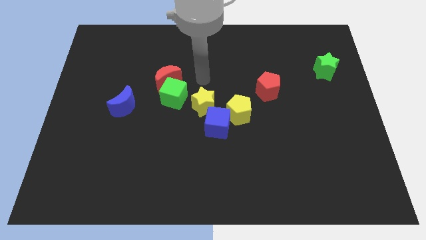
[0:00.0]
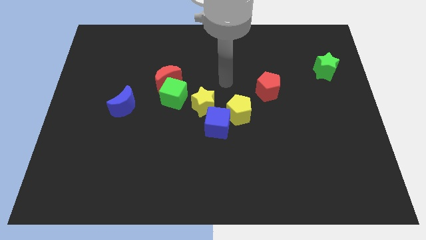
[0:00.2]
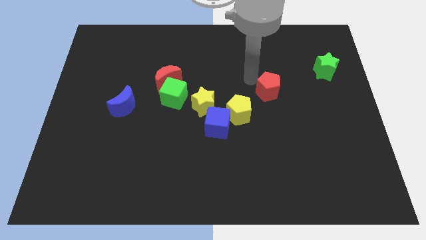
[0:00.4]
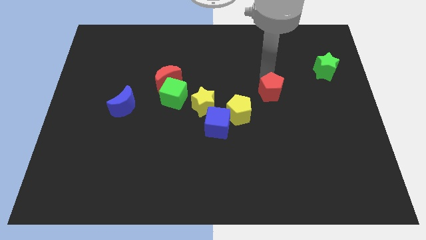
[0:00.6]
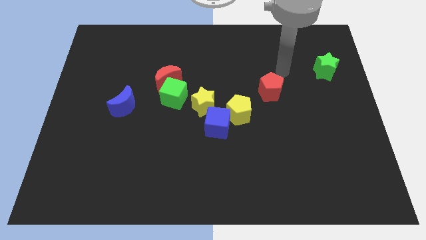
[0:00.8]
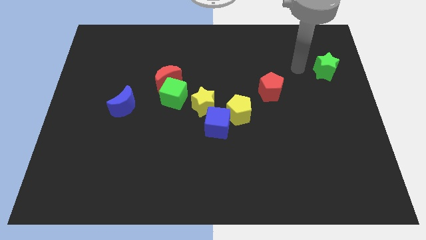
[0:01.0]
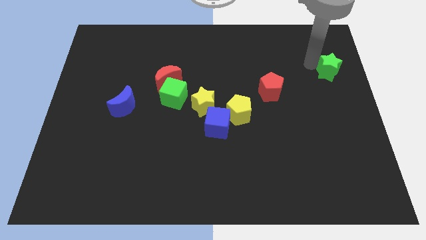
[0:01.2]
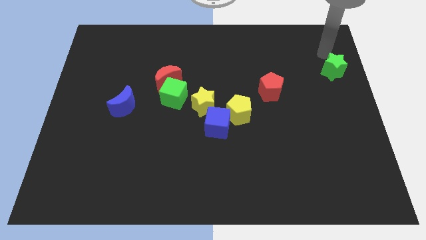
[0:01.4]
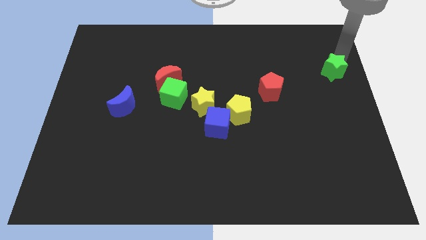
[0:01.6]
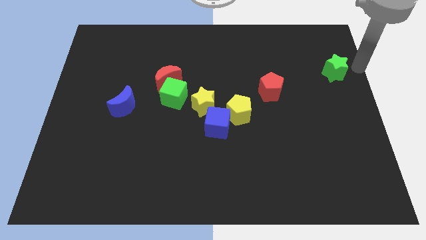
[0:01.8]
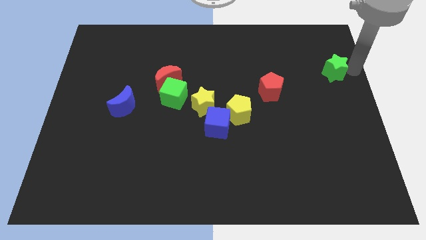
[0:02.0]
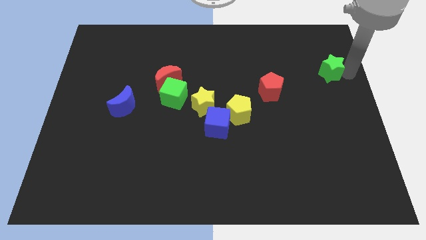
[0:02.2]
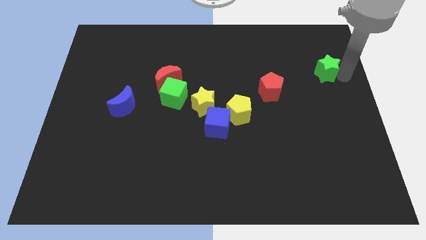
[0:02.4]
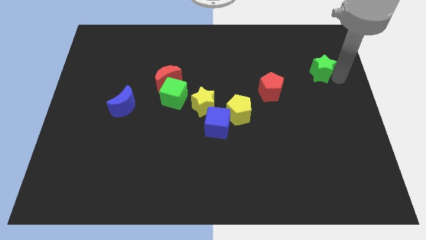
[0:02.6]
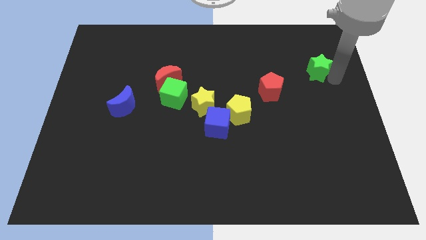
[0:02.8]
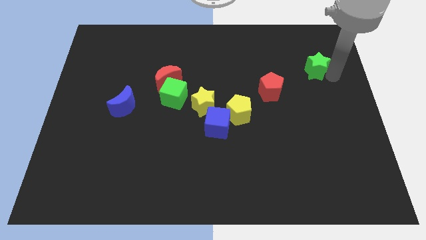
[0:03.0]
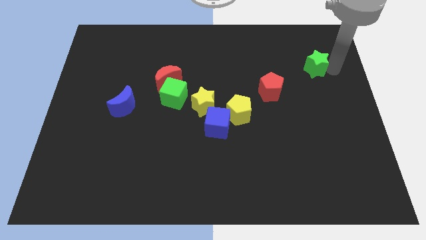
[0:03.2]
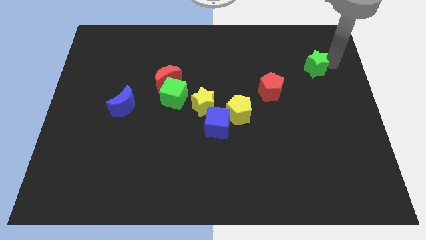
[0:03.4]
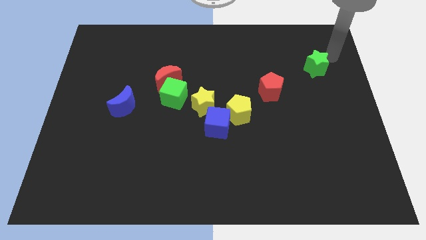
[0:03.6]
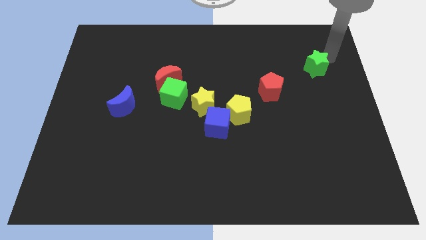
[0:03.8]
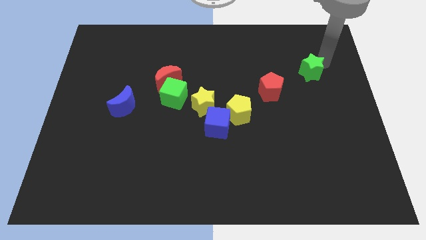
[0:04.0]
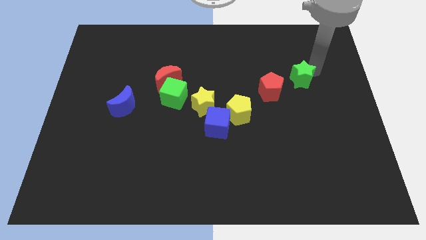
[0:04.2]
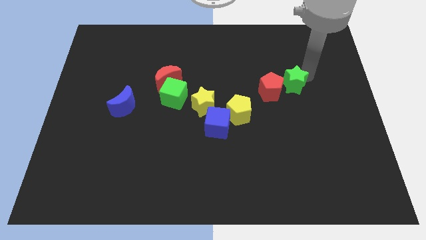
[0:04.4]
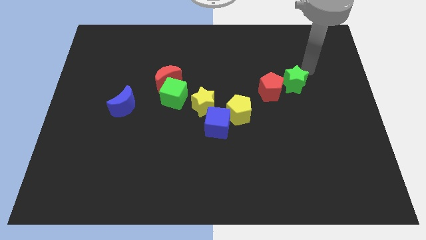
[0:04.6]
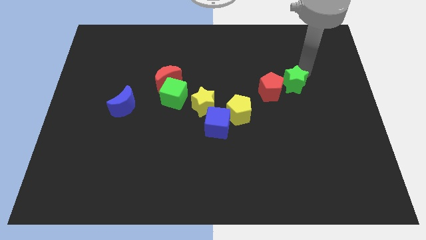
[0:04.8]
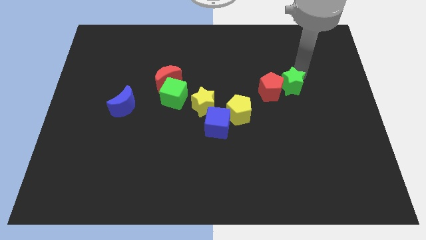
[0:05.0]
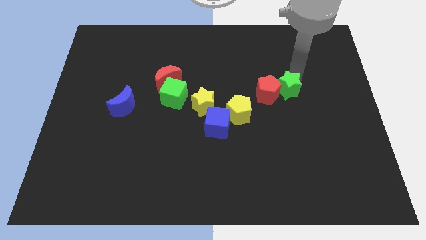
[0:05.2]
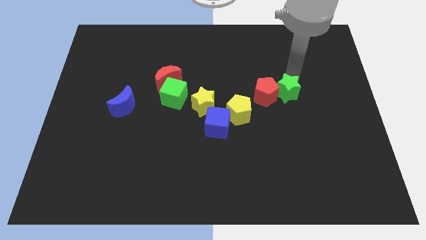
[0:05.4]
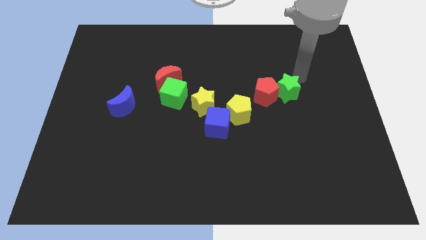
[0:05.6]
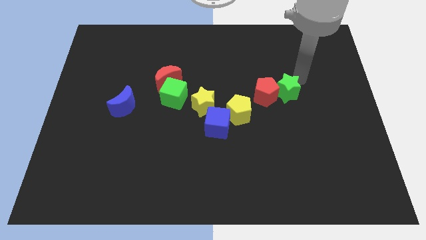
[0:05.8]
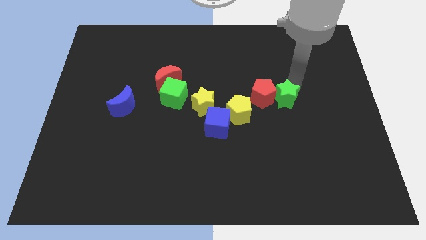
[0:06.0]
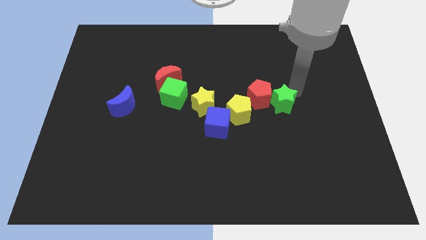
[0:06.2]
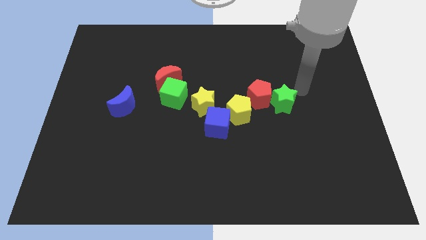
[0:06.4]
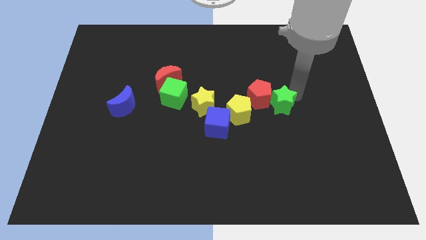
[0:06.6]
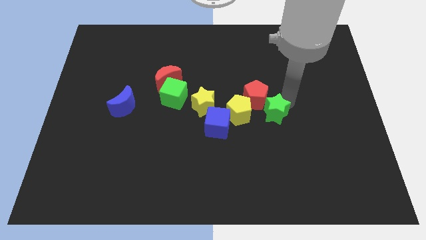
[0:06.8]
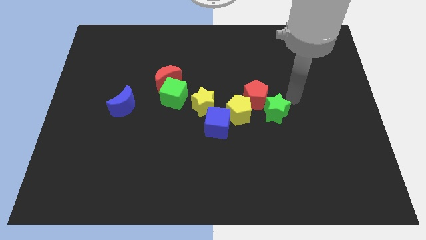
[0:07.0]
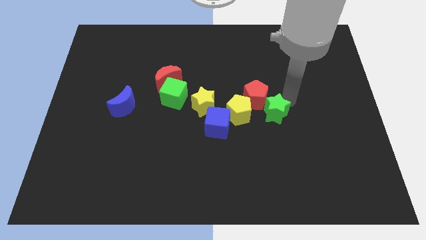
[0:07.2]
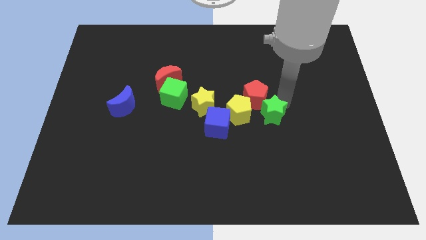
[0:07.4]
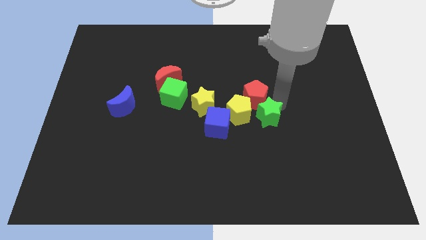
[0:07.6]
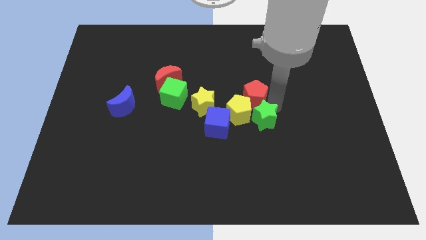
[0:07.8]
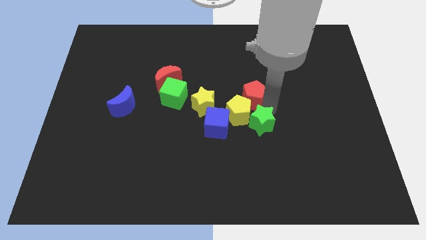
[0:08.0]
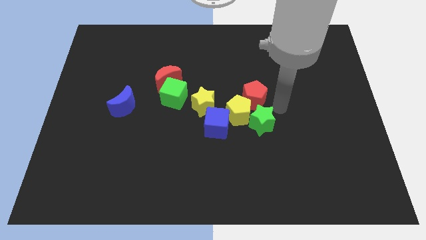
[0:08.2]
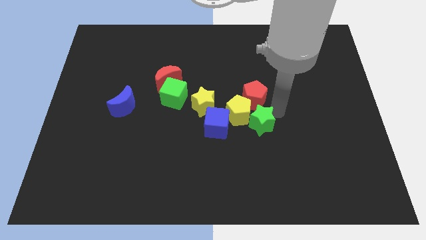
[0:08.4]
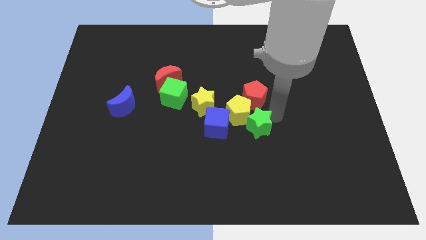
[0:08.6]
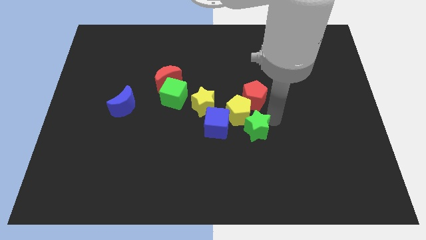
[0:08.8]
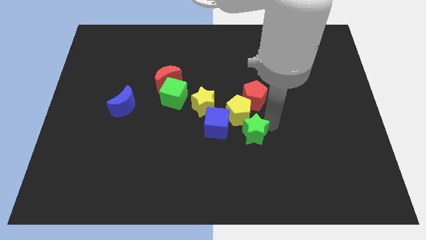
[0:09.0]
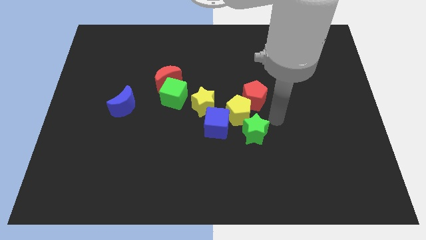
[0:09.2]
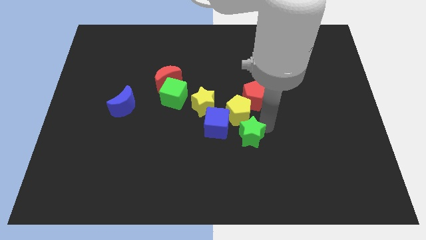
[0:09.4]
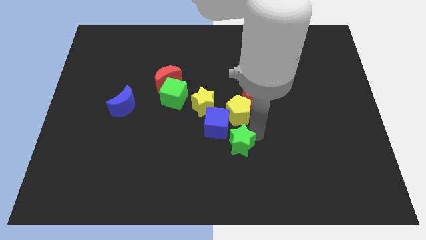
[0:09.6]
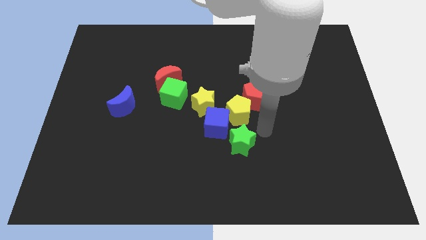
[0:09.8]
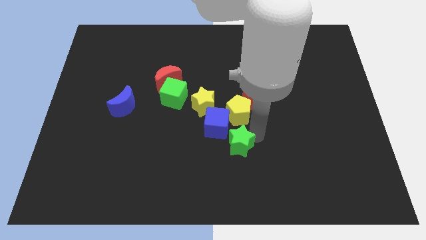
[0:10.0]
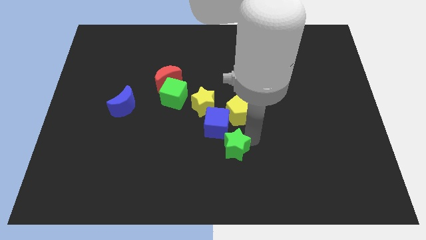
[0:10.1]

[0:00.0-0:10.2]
push the green star to the bottom side of the blue cube

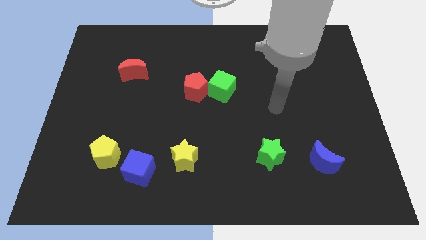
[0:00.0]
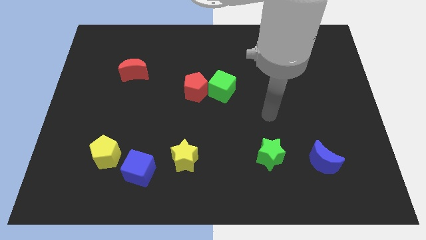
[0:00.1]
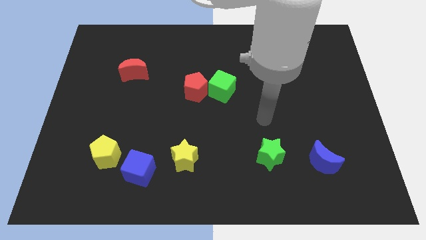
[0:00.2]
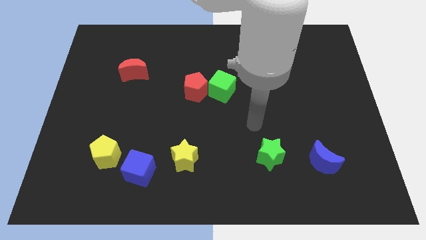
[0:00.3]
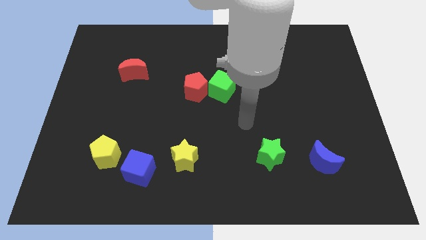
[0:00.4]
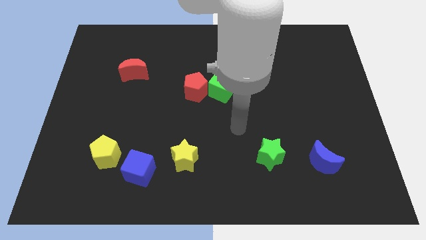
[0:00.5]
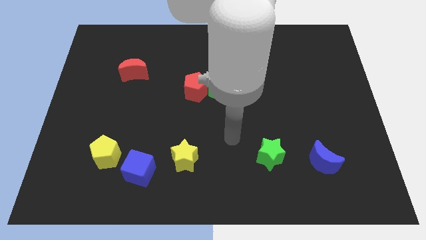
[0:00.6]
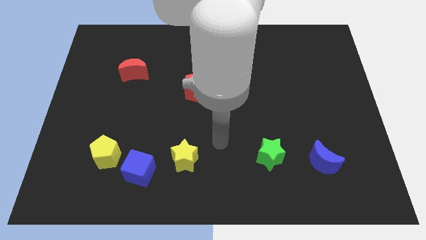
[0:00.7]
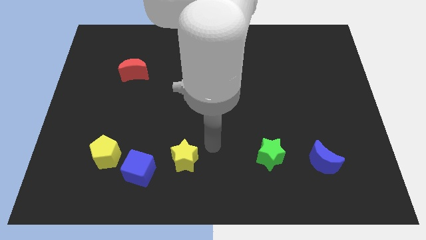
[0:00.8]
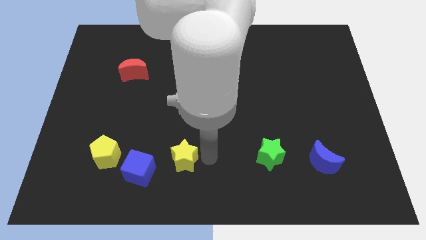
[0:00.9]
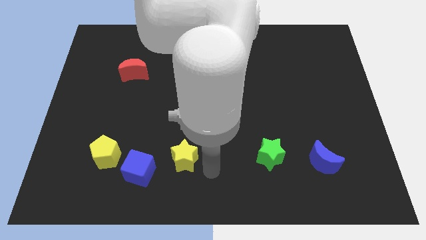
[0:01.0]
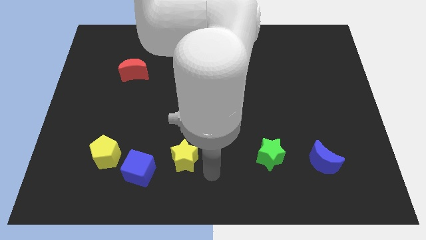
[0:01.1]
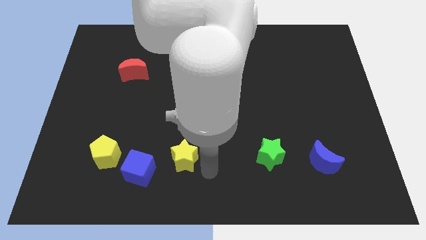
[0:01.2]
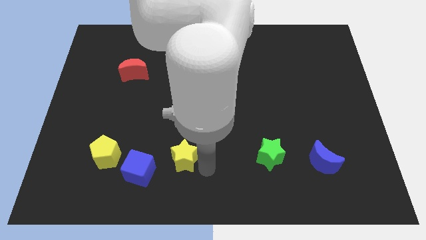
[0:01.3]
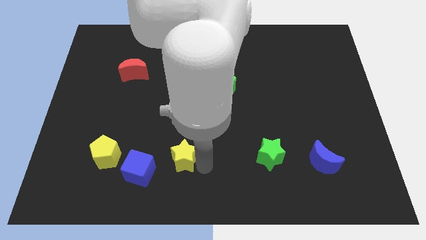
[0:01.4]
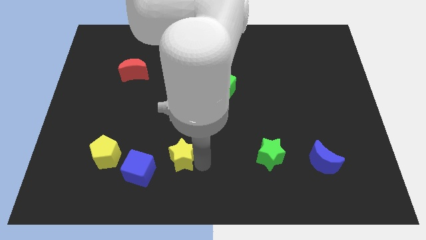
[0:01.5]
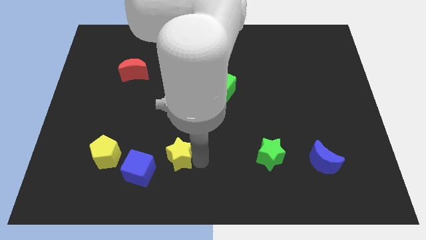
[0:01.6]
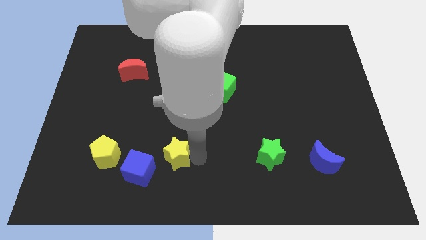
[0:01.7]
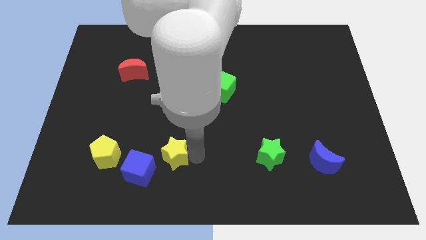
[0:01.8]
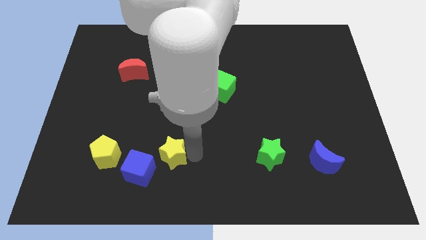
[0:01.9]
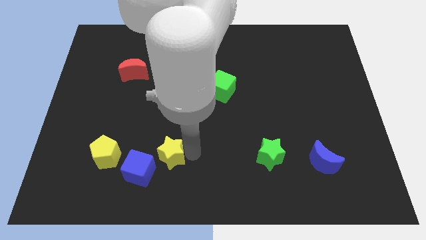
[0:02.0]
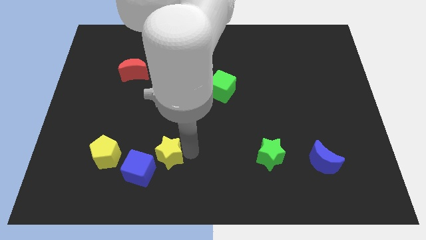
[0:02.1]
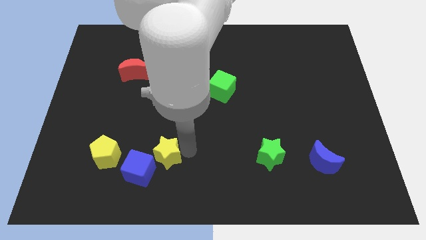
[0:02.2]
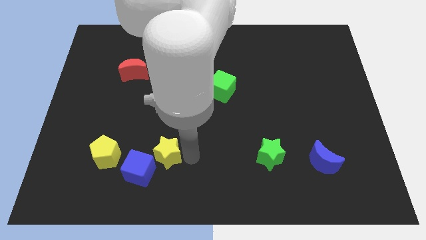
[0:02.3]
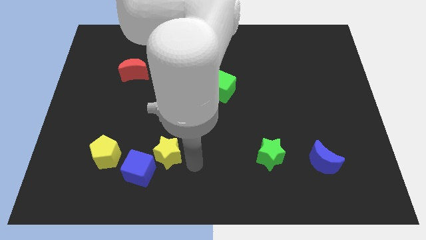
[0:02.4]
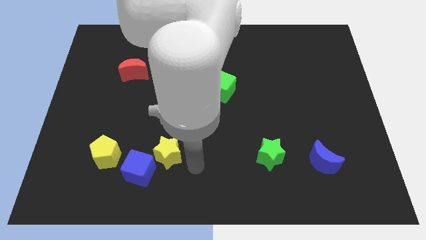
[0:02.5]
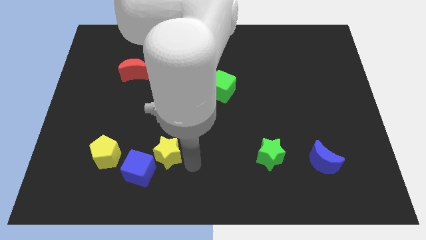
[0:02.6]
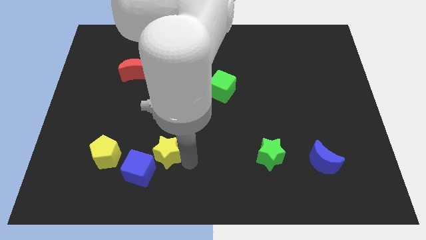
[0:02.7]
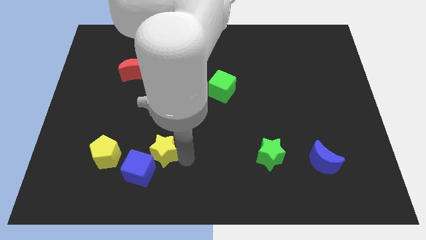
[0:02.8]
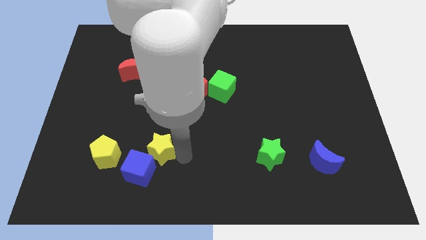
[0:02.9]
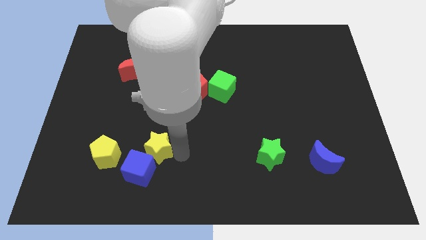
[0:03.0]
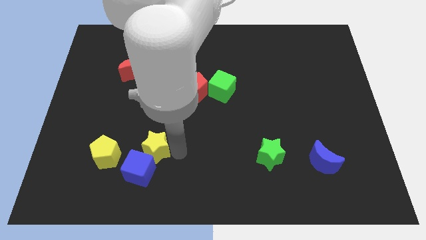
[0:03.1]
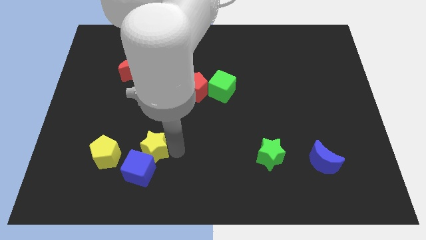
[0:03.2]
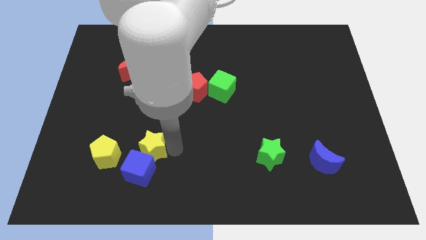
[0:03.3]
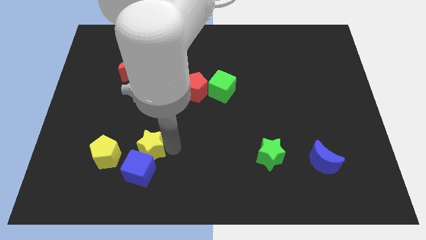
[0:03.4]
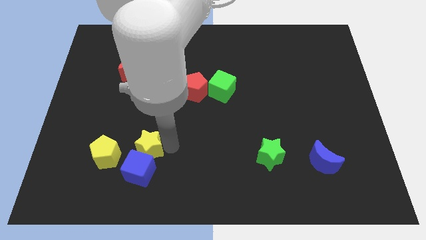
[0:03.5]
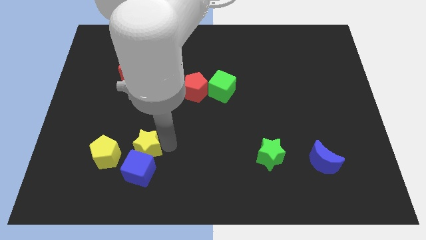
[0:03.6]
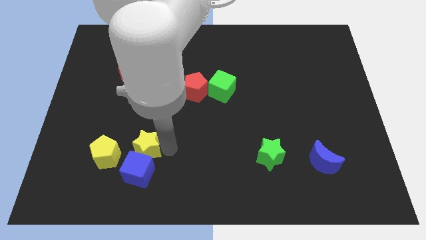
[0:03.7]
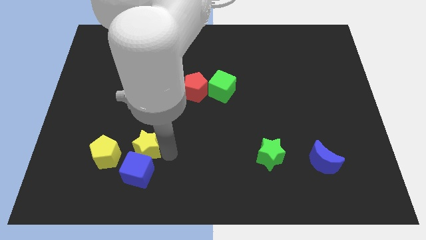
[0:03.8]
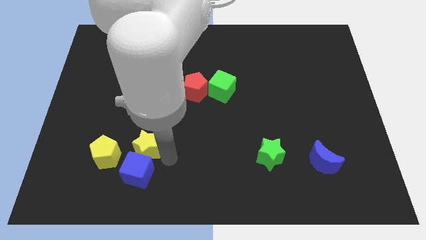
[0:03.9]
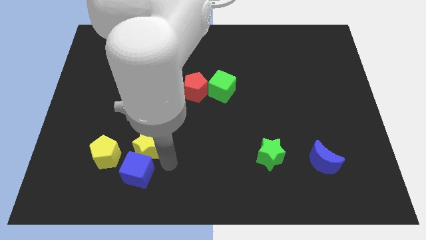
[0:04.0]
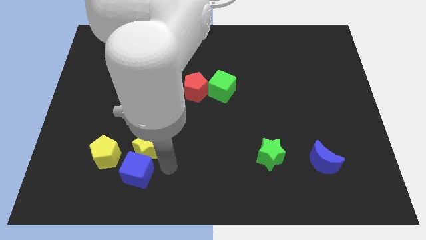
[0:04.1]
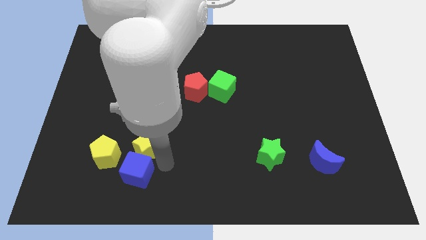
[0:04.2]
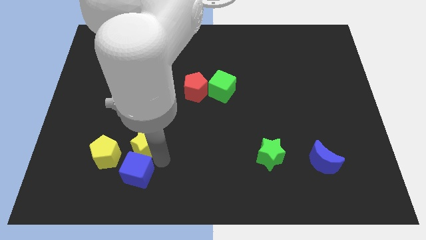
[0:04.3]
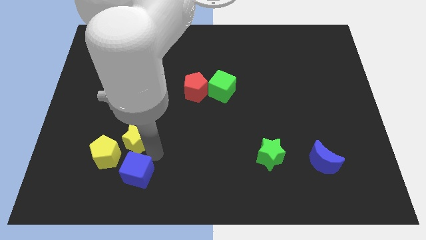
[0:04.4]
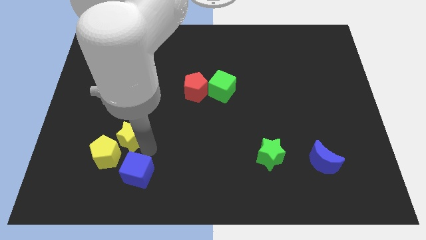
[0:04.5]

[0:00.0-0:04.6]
slide the yellow star to the top side of the yellow pentagon
